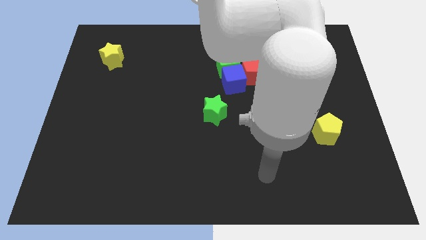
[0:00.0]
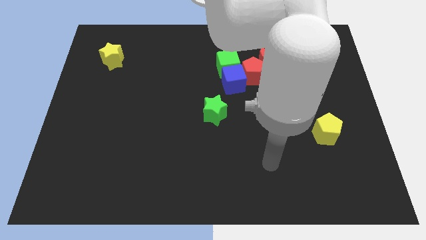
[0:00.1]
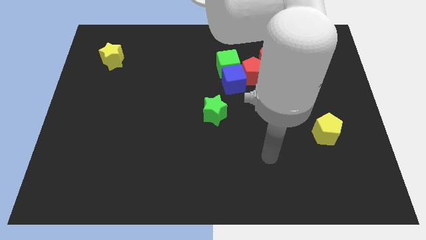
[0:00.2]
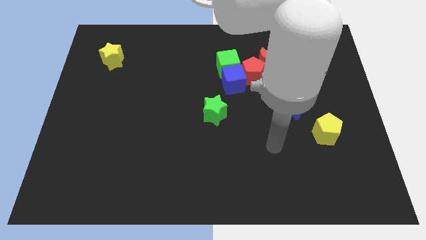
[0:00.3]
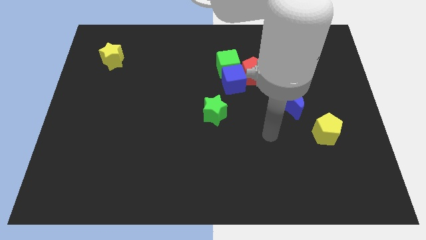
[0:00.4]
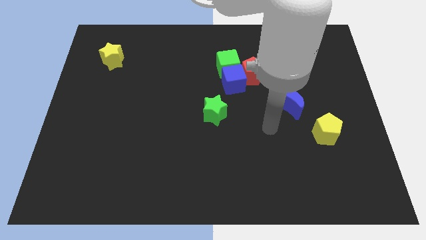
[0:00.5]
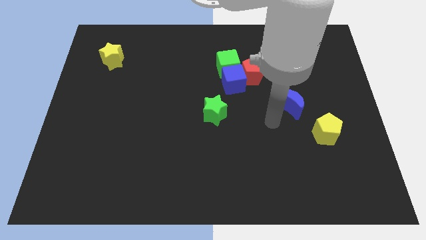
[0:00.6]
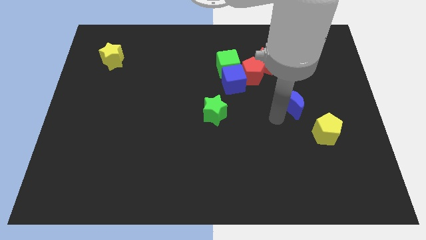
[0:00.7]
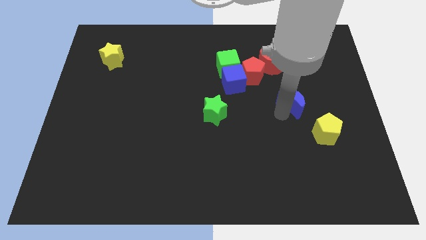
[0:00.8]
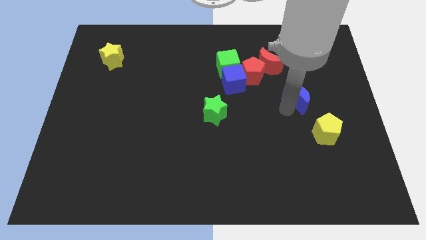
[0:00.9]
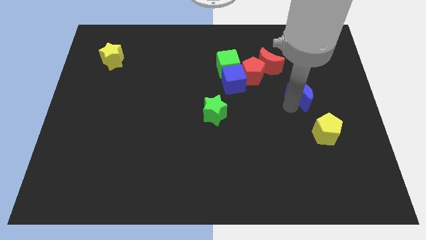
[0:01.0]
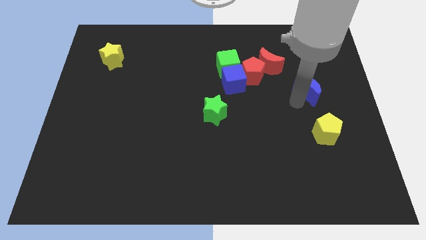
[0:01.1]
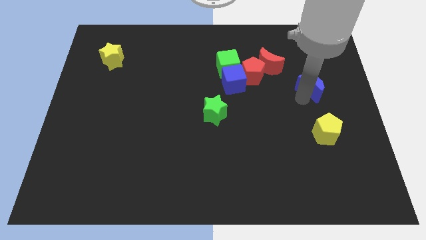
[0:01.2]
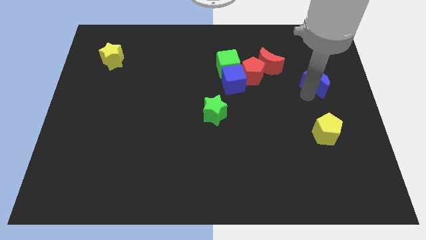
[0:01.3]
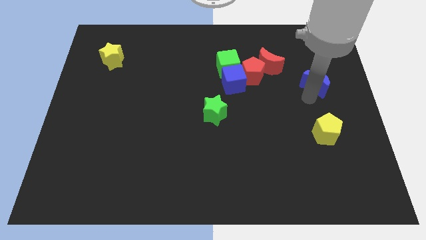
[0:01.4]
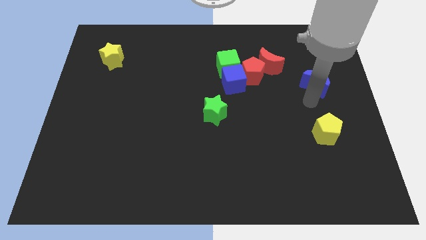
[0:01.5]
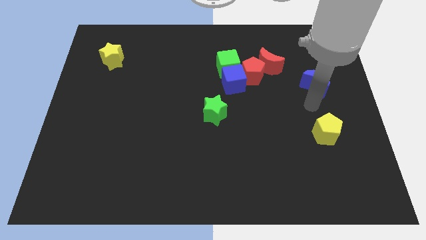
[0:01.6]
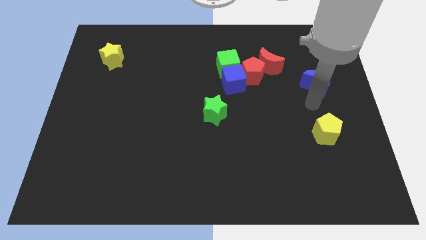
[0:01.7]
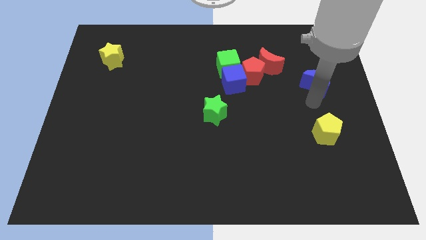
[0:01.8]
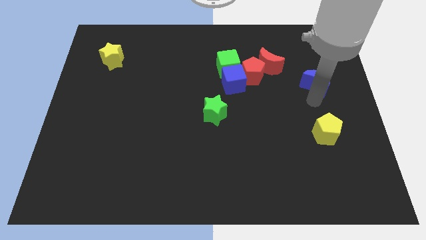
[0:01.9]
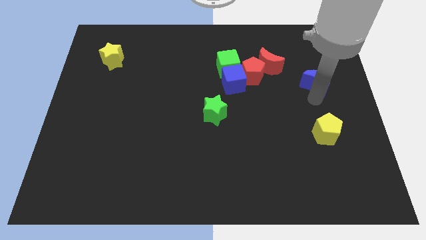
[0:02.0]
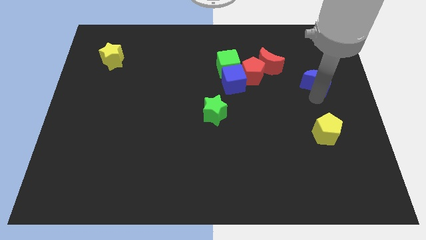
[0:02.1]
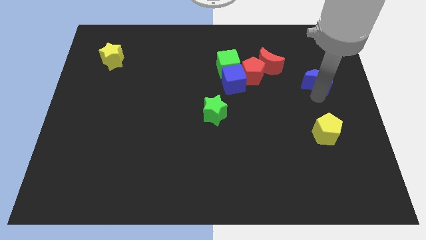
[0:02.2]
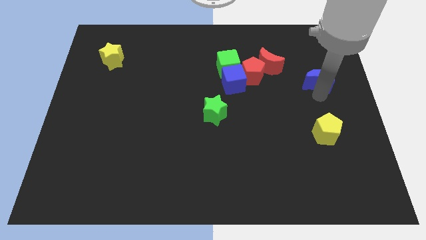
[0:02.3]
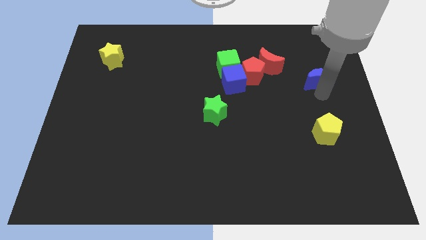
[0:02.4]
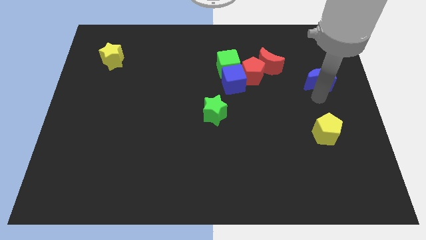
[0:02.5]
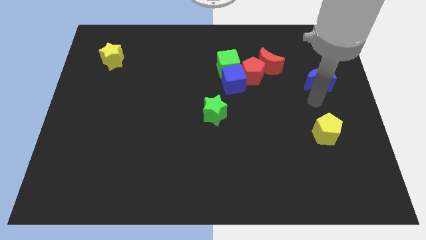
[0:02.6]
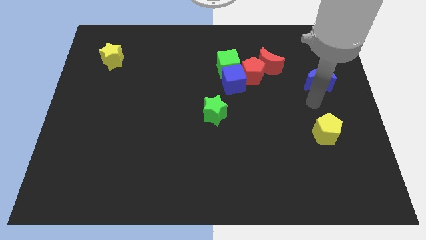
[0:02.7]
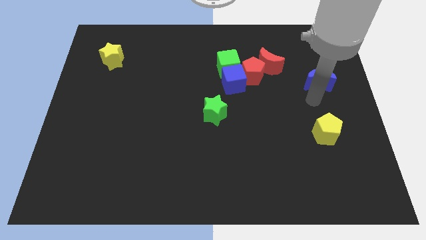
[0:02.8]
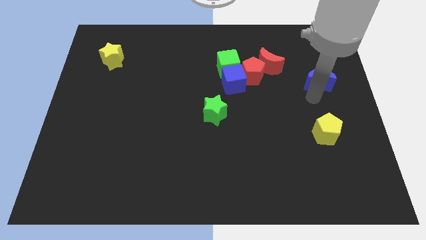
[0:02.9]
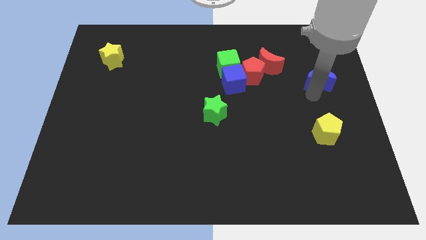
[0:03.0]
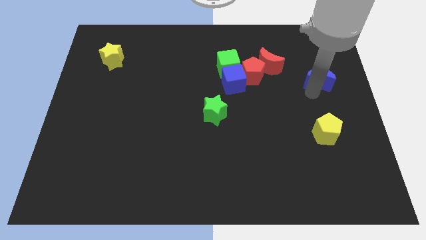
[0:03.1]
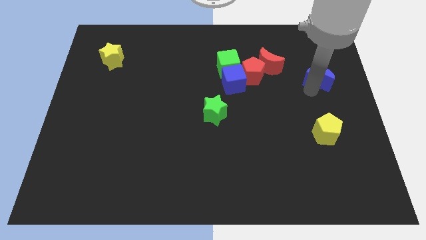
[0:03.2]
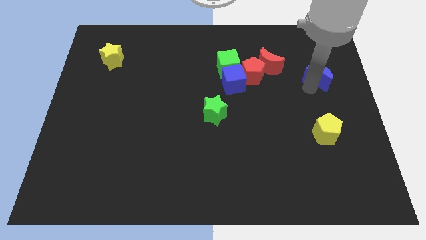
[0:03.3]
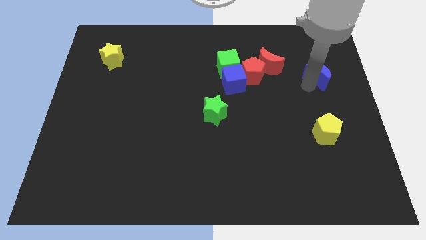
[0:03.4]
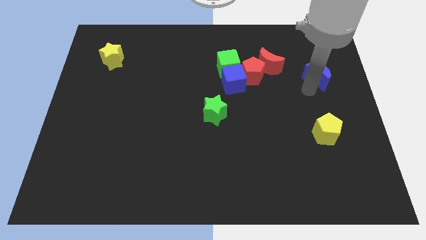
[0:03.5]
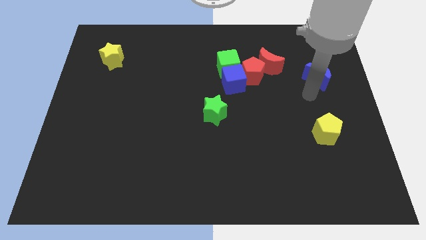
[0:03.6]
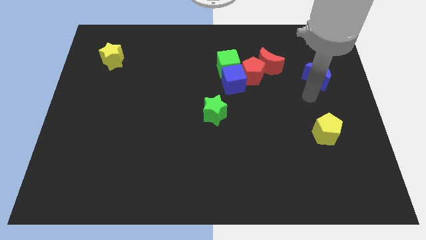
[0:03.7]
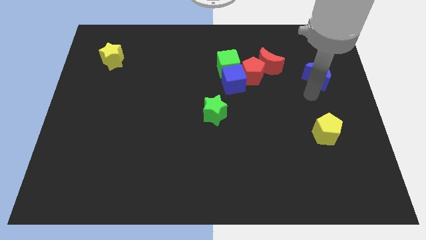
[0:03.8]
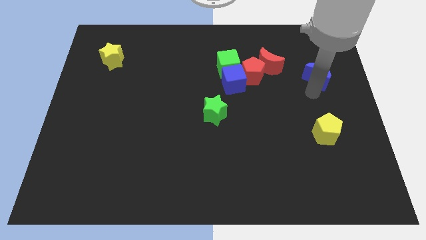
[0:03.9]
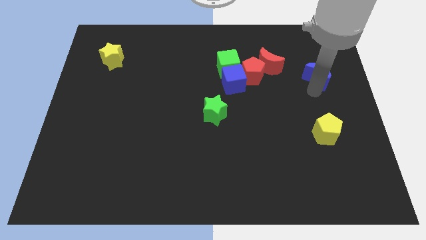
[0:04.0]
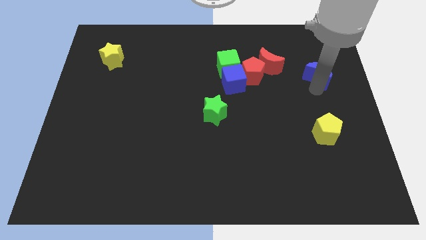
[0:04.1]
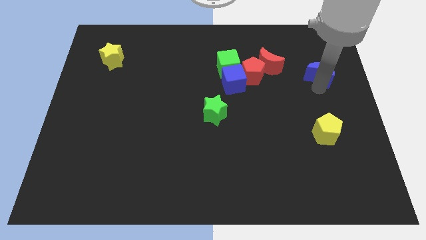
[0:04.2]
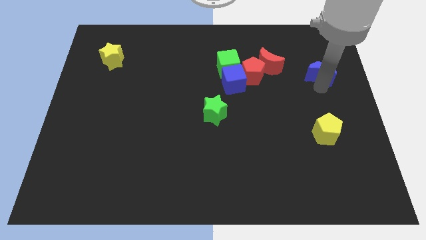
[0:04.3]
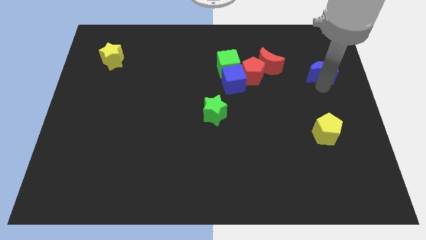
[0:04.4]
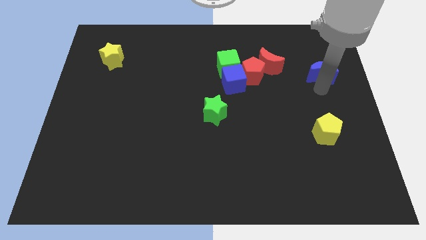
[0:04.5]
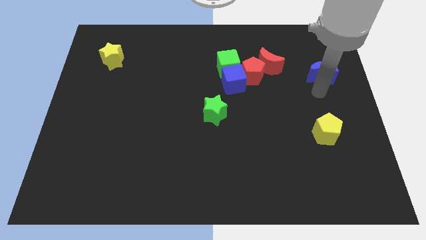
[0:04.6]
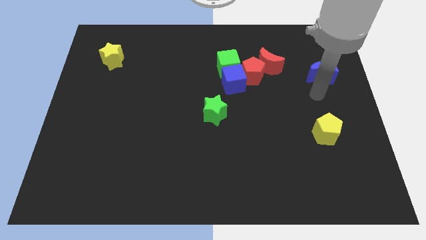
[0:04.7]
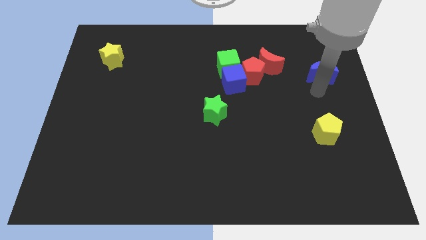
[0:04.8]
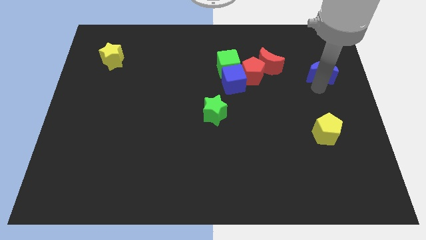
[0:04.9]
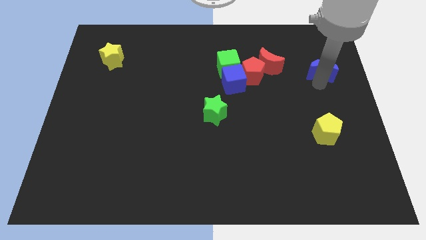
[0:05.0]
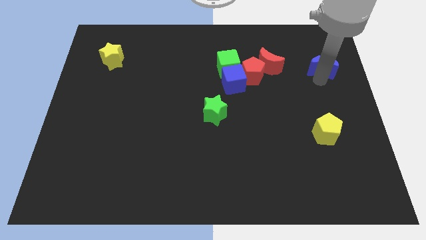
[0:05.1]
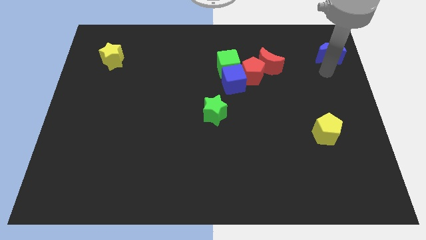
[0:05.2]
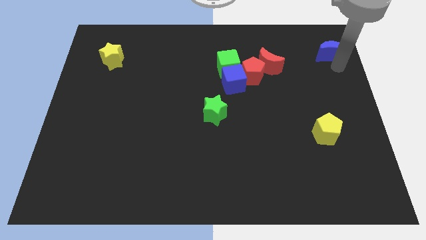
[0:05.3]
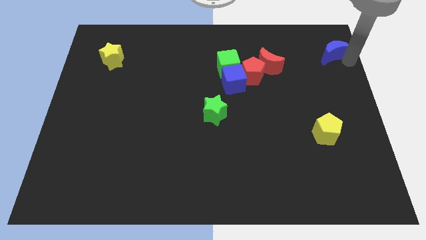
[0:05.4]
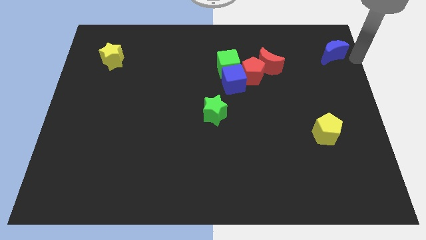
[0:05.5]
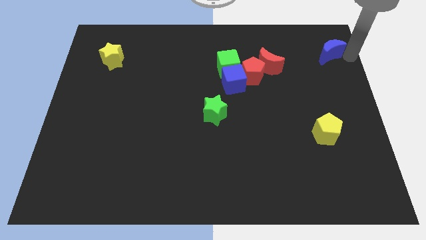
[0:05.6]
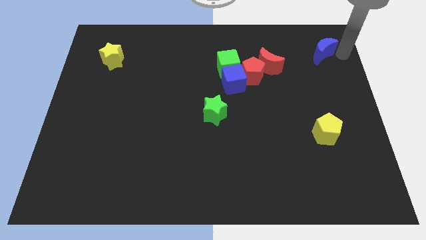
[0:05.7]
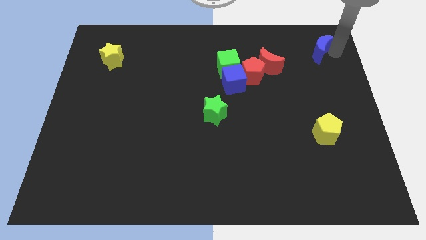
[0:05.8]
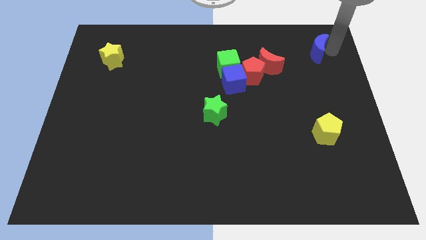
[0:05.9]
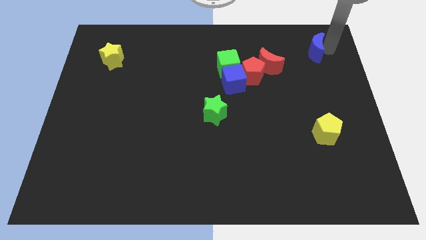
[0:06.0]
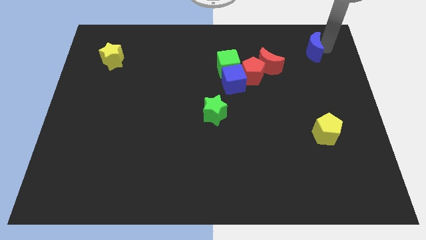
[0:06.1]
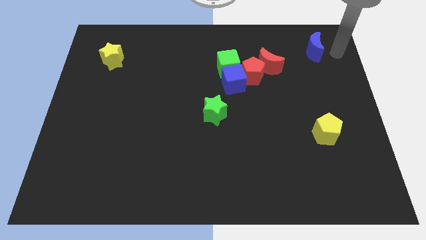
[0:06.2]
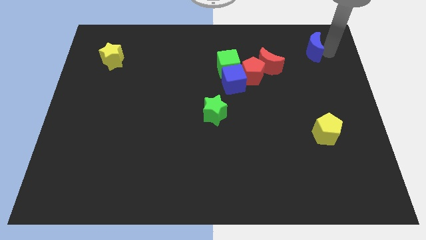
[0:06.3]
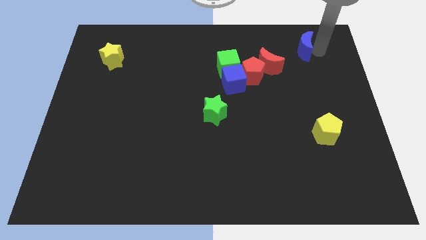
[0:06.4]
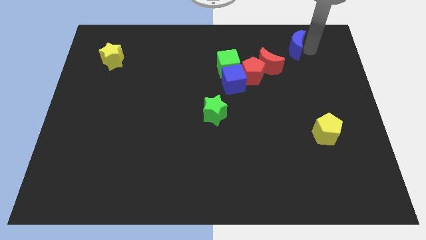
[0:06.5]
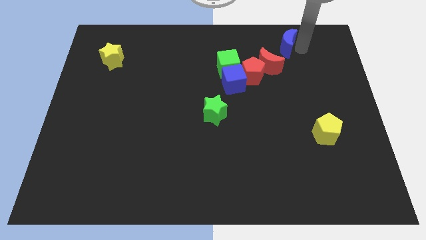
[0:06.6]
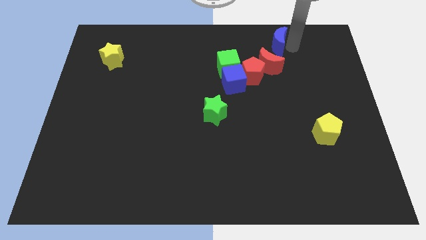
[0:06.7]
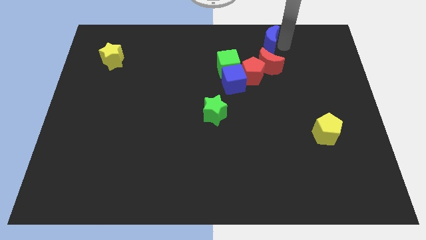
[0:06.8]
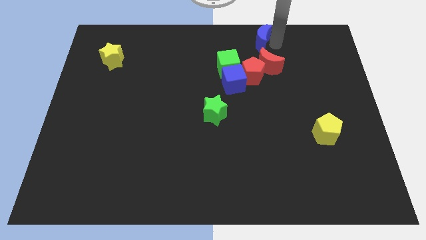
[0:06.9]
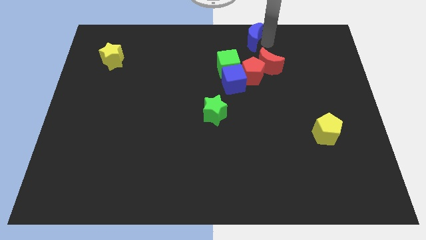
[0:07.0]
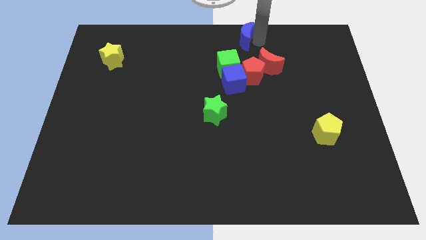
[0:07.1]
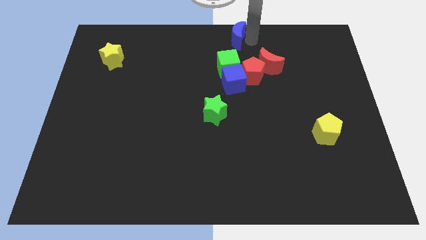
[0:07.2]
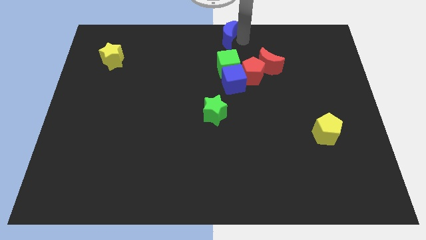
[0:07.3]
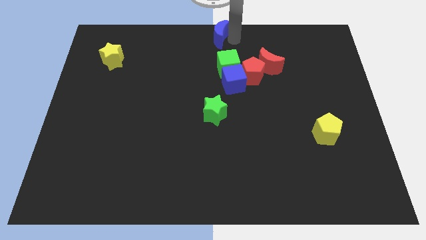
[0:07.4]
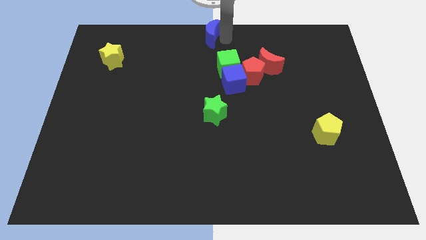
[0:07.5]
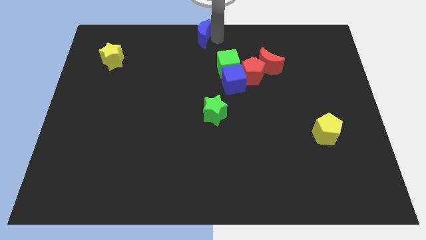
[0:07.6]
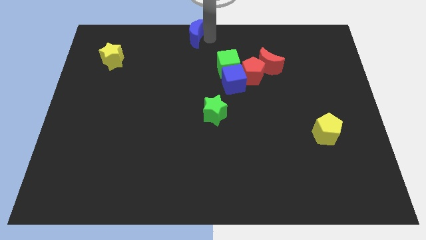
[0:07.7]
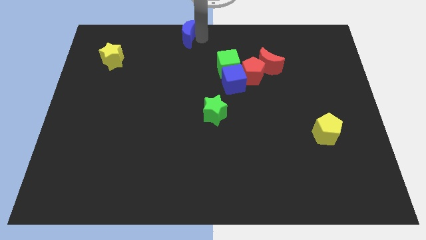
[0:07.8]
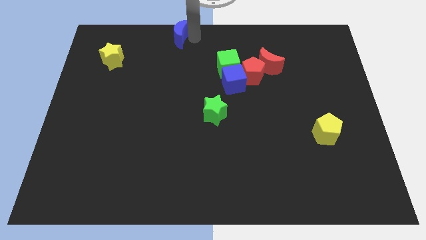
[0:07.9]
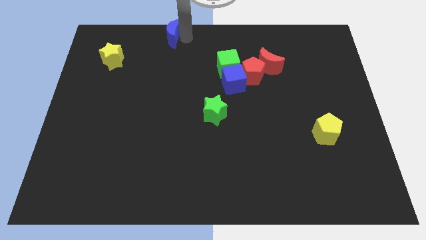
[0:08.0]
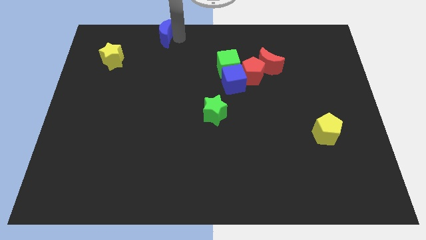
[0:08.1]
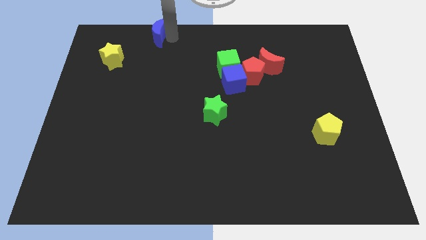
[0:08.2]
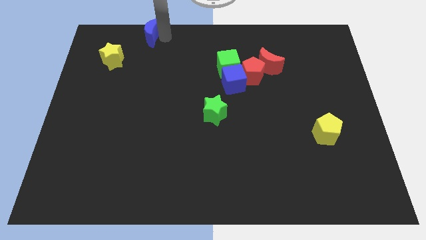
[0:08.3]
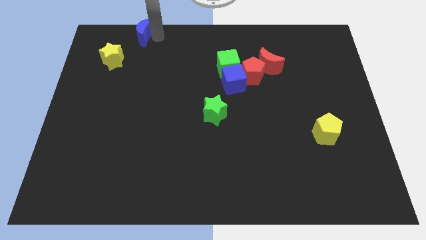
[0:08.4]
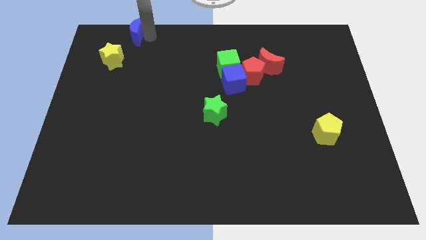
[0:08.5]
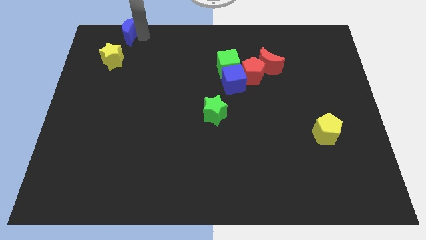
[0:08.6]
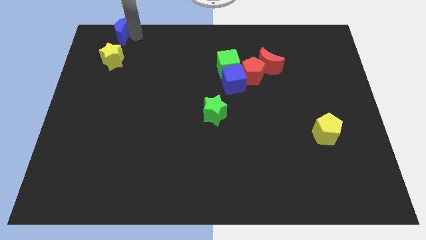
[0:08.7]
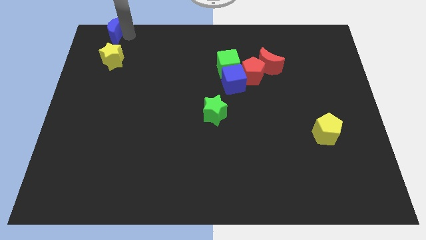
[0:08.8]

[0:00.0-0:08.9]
slide the blue moon to the upper left corner
